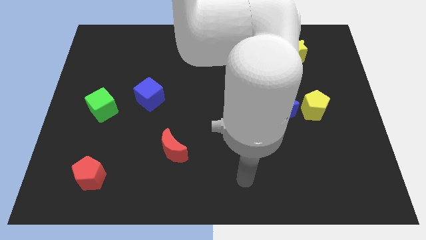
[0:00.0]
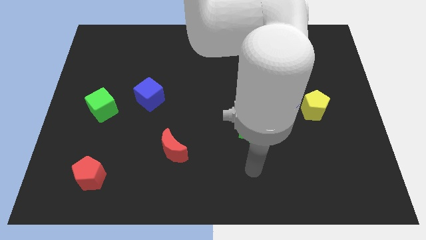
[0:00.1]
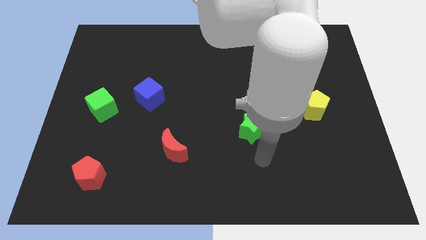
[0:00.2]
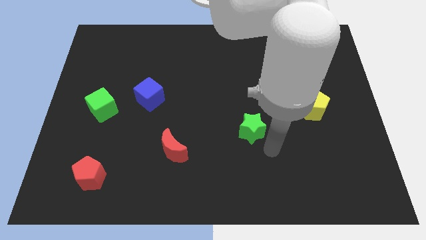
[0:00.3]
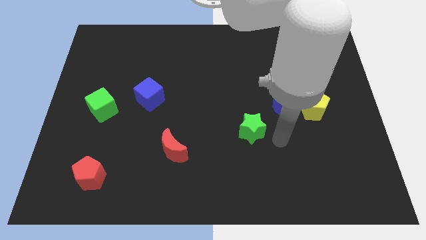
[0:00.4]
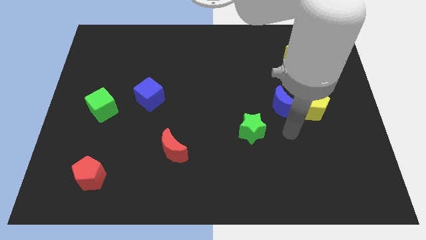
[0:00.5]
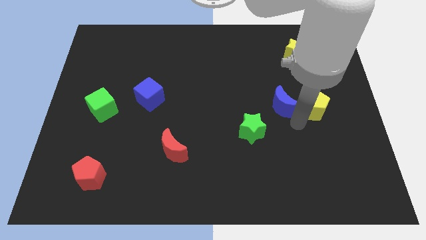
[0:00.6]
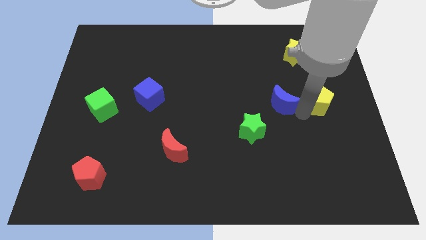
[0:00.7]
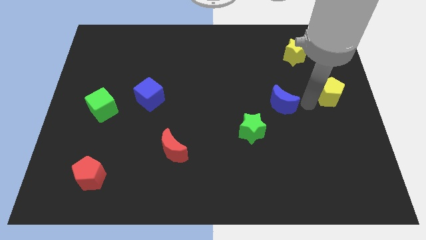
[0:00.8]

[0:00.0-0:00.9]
pull the blue moon apart from the yellow pentagon

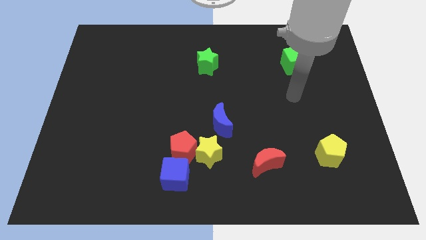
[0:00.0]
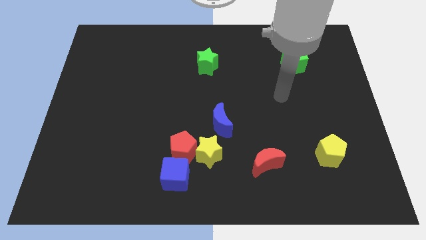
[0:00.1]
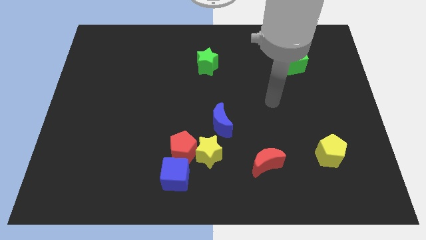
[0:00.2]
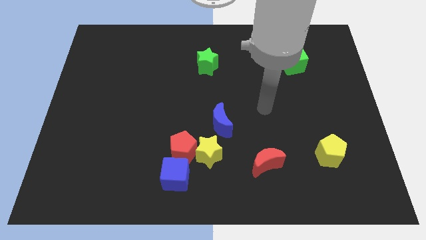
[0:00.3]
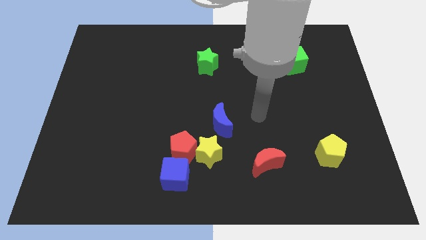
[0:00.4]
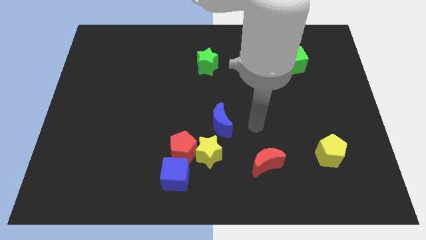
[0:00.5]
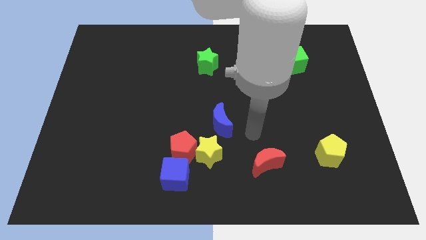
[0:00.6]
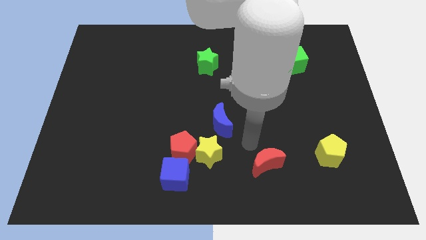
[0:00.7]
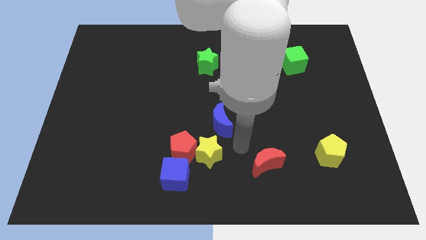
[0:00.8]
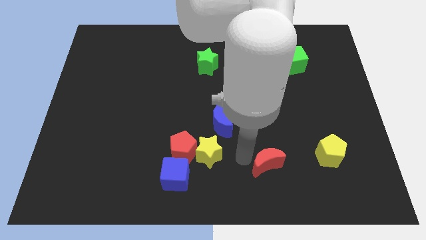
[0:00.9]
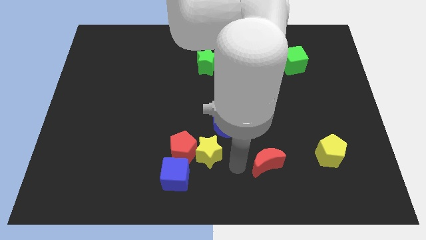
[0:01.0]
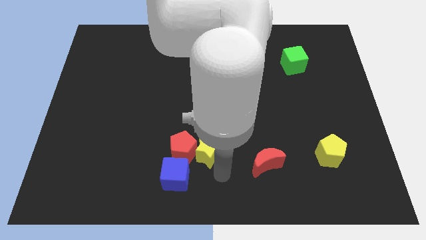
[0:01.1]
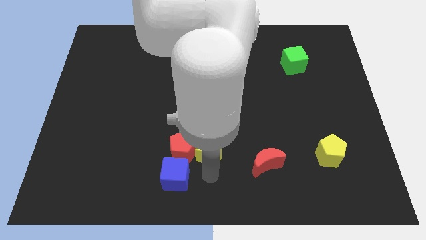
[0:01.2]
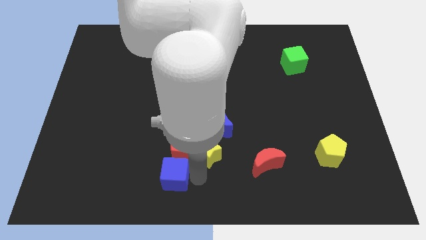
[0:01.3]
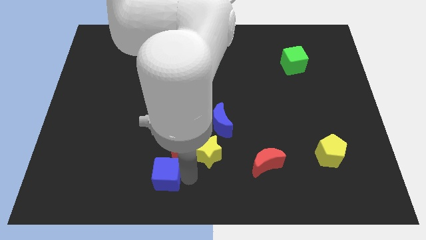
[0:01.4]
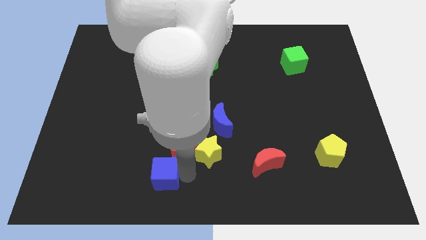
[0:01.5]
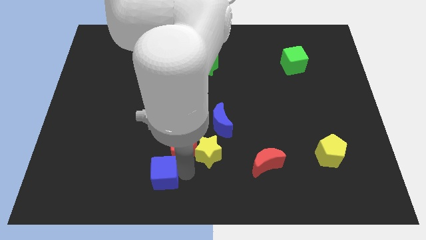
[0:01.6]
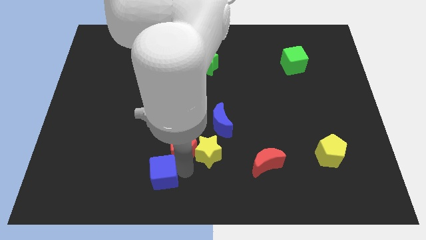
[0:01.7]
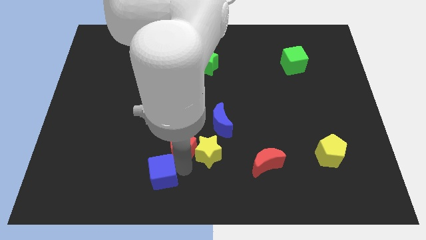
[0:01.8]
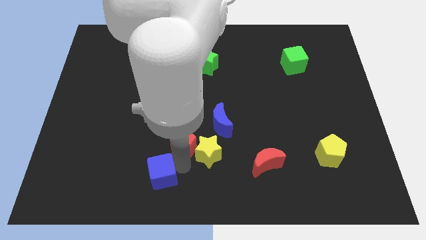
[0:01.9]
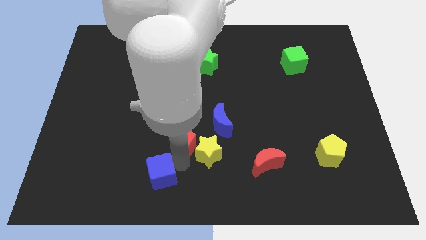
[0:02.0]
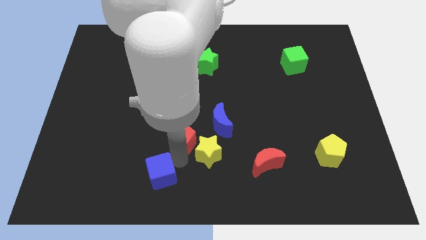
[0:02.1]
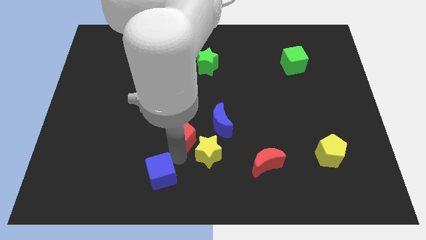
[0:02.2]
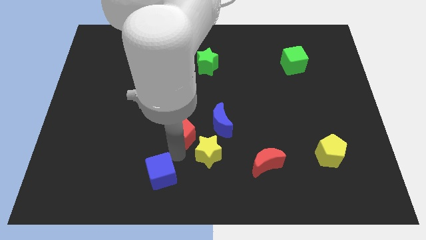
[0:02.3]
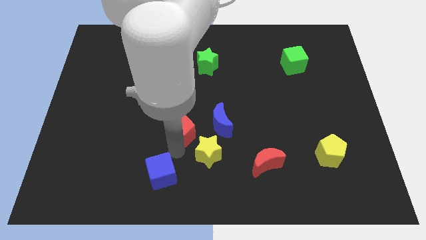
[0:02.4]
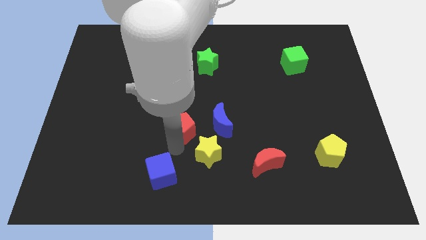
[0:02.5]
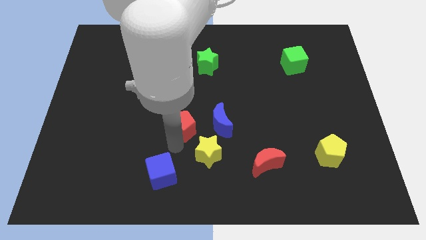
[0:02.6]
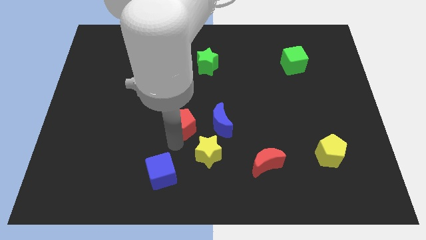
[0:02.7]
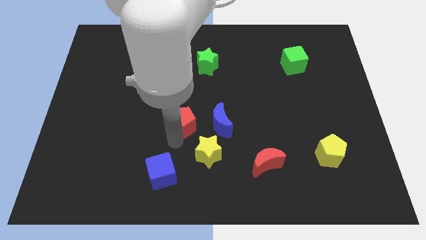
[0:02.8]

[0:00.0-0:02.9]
move the red pentagon away from the yellow star and blue cube

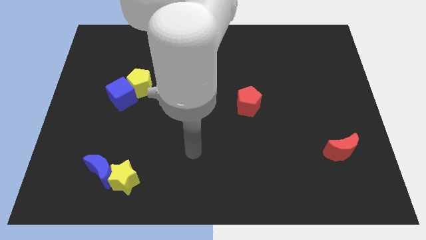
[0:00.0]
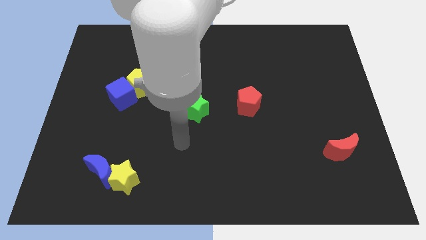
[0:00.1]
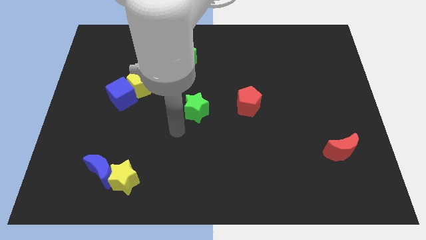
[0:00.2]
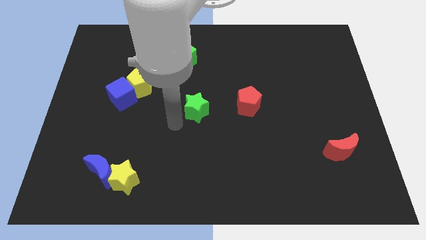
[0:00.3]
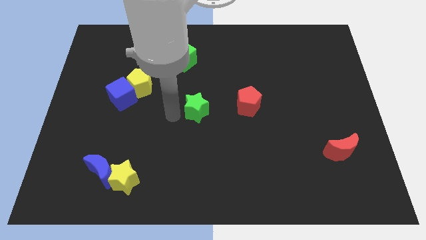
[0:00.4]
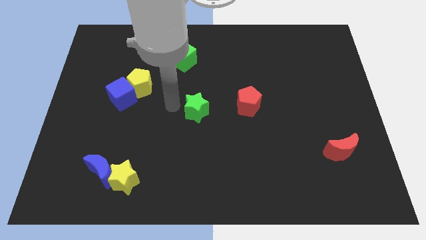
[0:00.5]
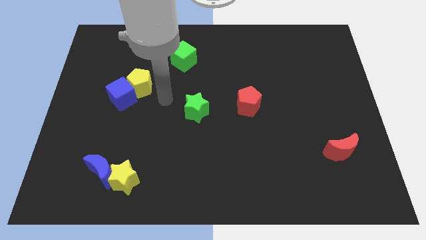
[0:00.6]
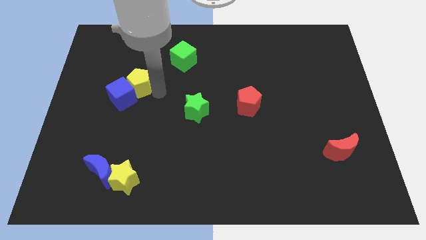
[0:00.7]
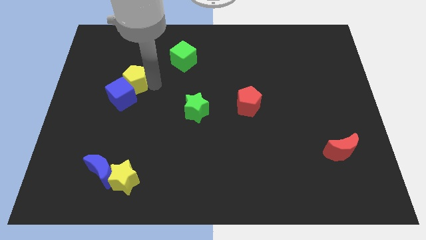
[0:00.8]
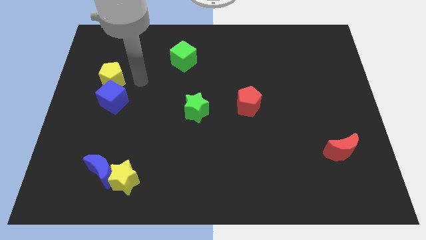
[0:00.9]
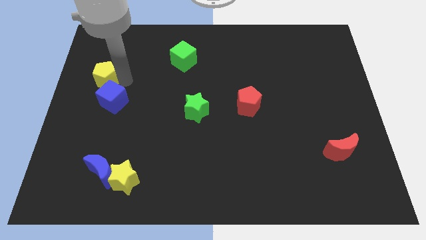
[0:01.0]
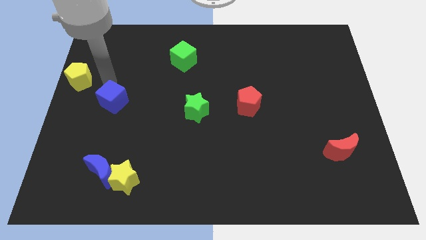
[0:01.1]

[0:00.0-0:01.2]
separate the blue cube from the yellow pentagon

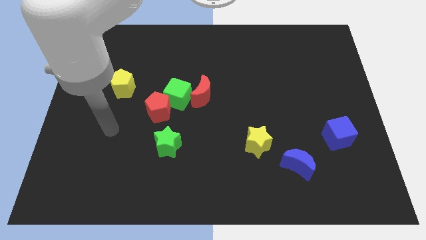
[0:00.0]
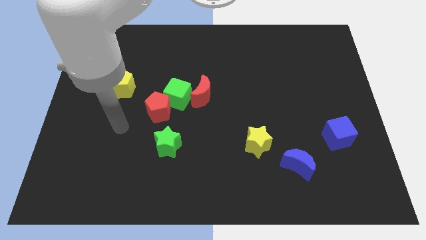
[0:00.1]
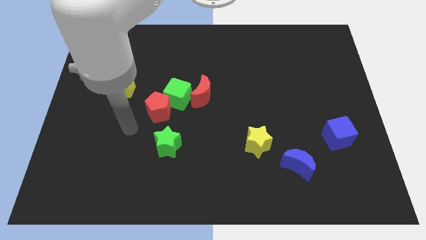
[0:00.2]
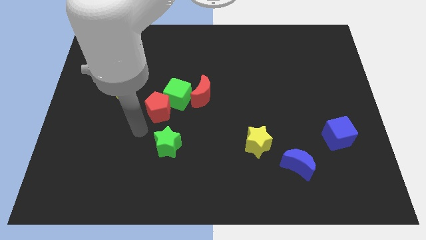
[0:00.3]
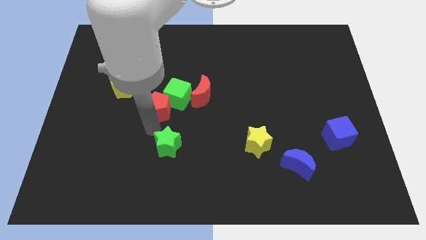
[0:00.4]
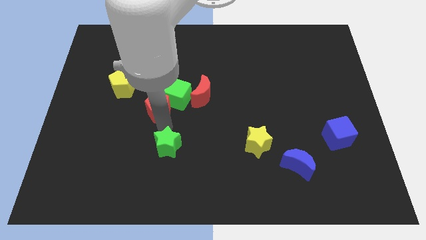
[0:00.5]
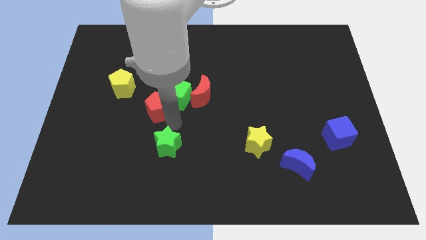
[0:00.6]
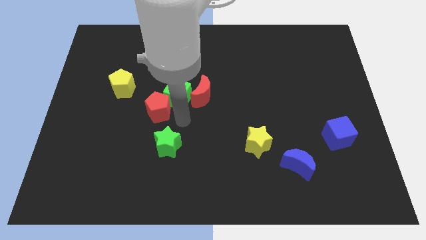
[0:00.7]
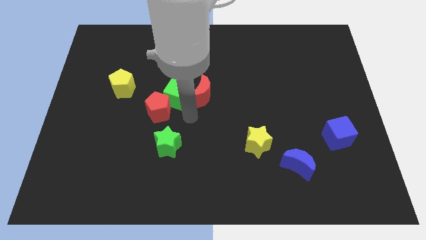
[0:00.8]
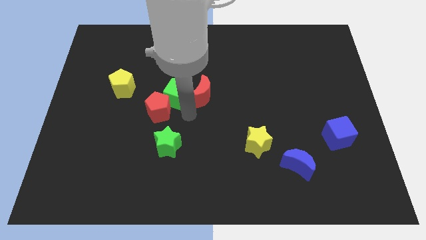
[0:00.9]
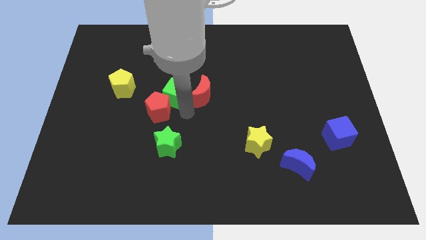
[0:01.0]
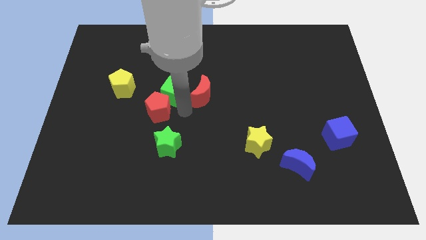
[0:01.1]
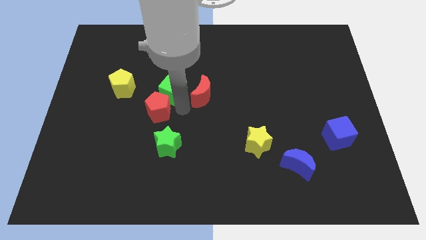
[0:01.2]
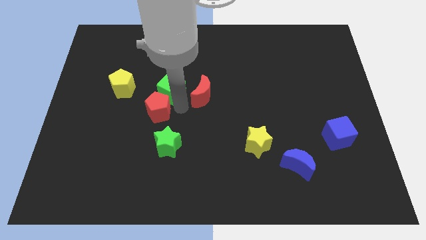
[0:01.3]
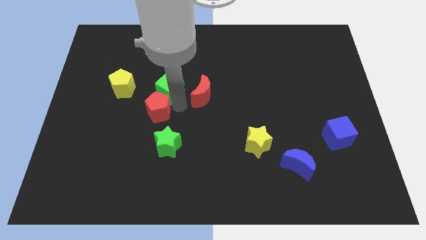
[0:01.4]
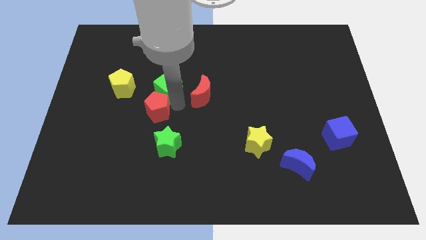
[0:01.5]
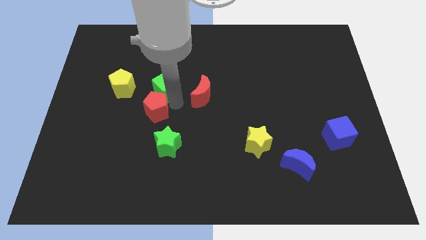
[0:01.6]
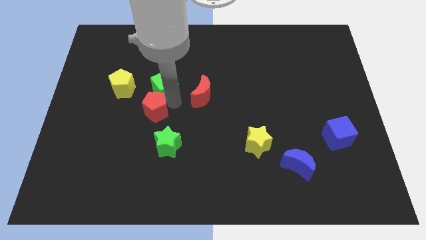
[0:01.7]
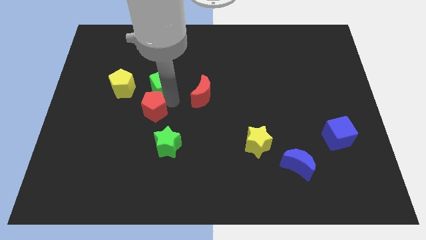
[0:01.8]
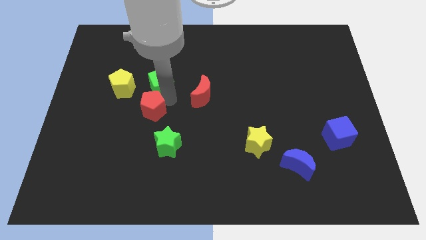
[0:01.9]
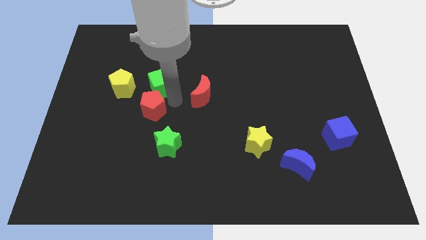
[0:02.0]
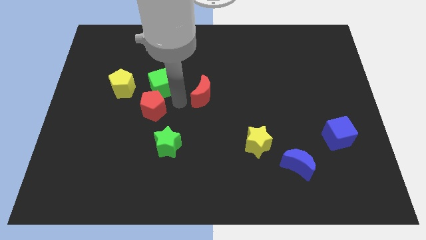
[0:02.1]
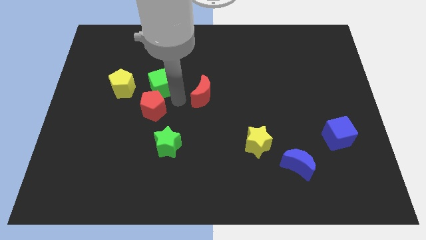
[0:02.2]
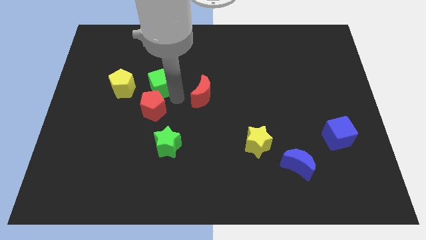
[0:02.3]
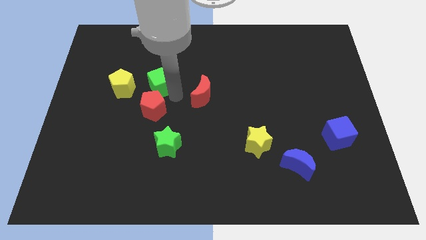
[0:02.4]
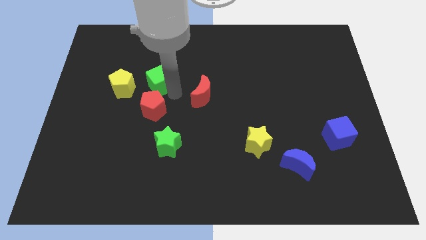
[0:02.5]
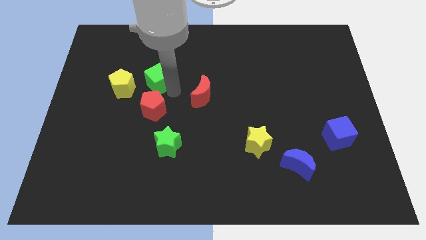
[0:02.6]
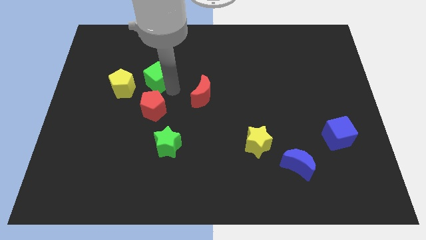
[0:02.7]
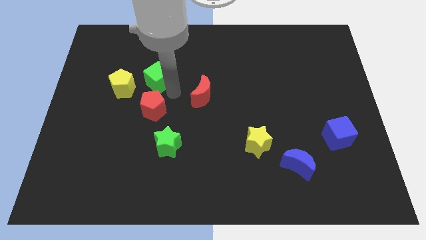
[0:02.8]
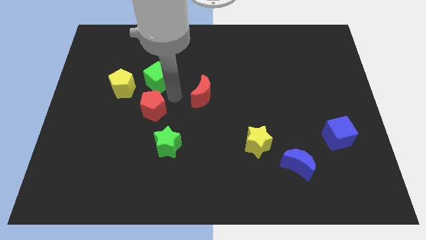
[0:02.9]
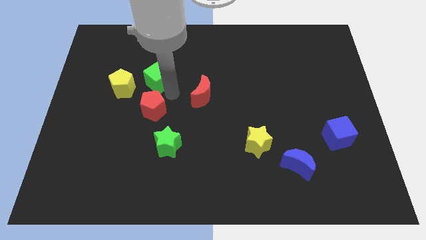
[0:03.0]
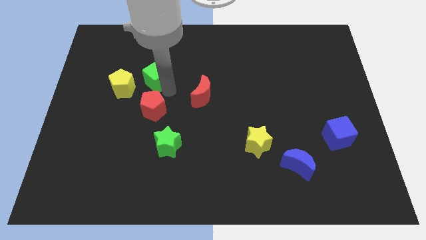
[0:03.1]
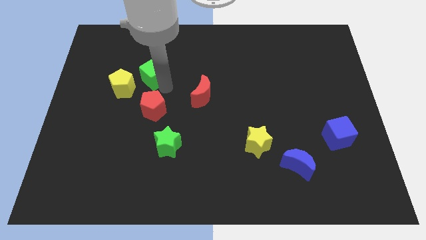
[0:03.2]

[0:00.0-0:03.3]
move the green cube away from the red pentagon and red moon

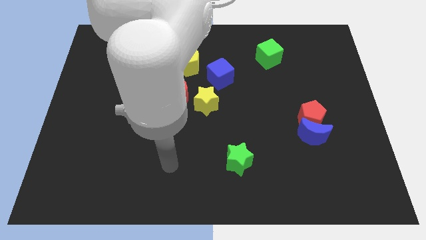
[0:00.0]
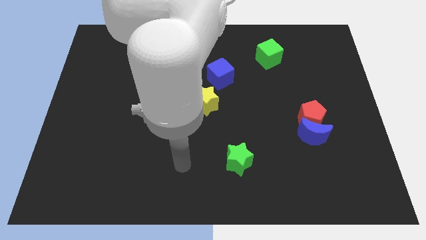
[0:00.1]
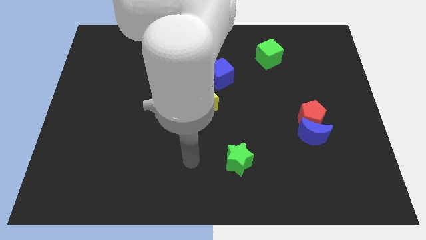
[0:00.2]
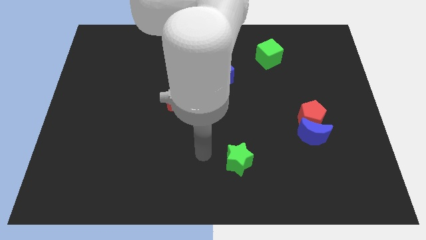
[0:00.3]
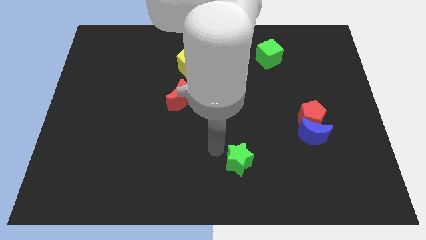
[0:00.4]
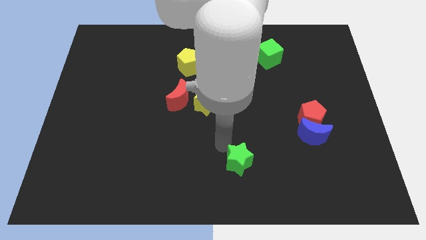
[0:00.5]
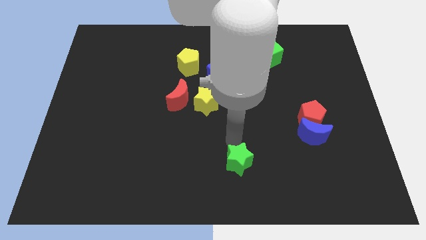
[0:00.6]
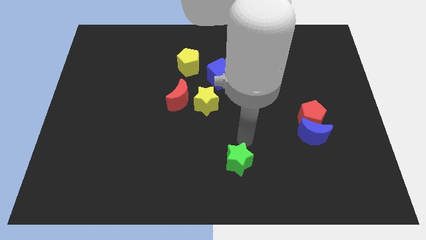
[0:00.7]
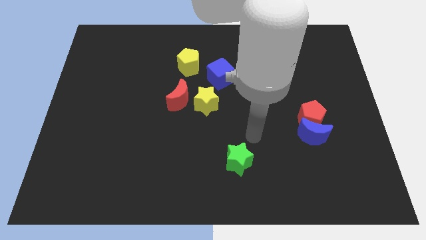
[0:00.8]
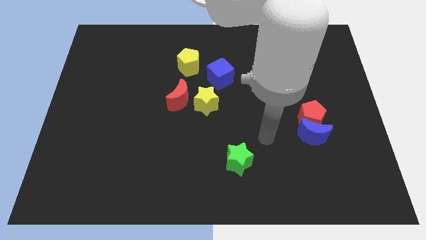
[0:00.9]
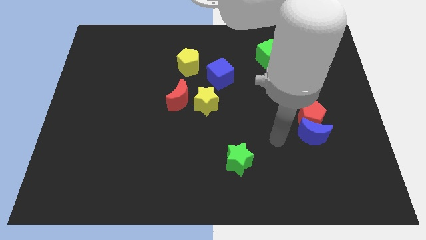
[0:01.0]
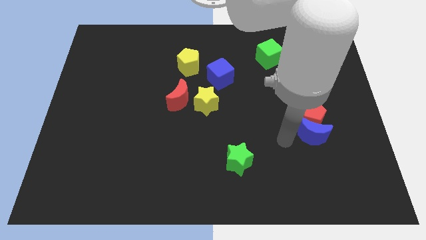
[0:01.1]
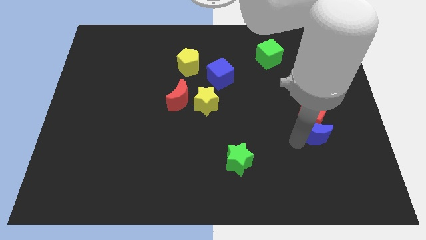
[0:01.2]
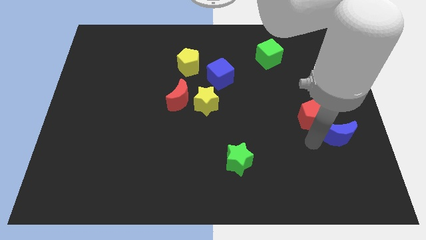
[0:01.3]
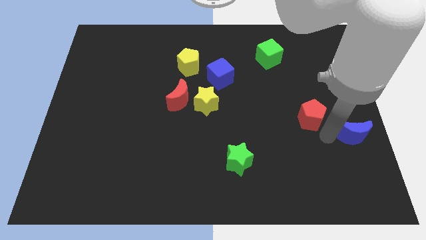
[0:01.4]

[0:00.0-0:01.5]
move the red pentagon away from the blue moon
